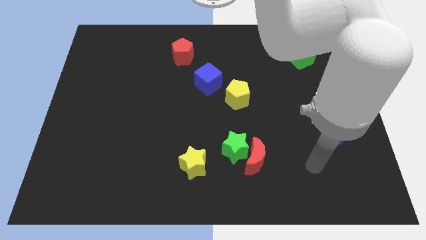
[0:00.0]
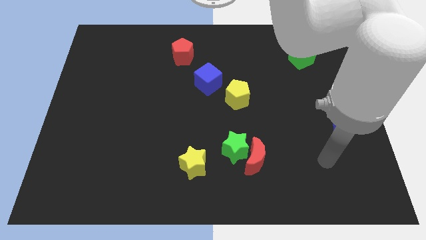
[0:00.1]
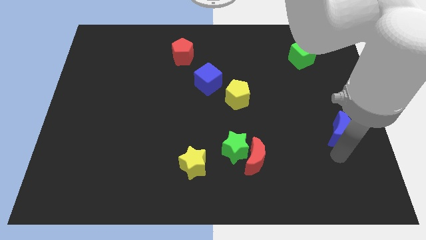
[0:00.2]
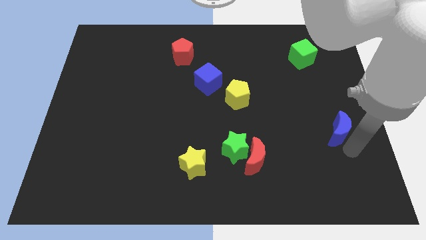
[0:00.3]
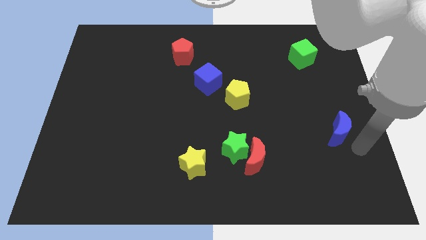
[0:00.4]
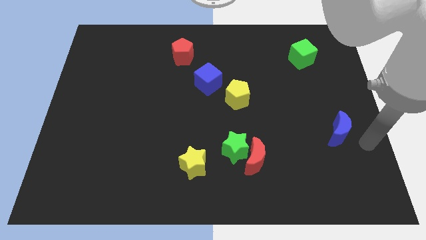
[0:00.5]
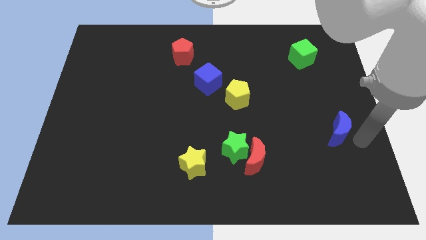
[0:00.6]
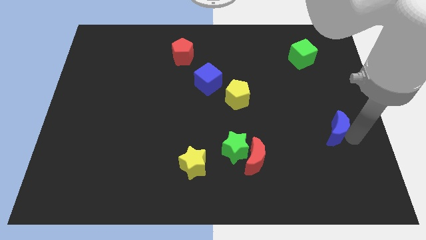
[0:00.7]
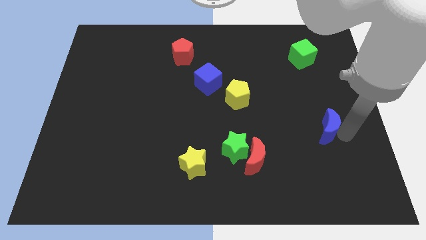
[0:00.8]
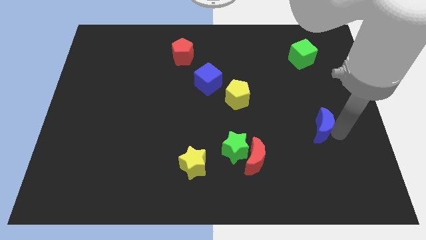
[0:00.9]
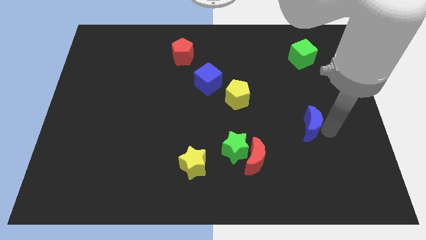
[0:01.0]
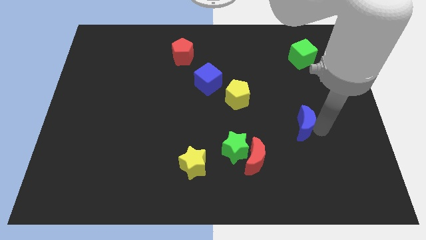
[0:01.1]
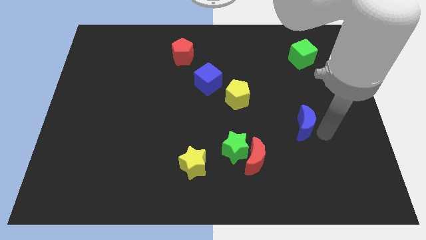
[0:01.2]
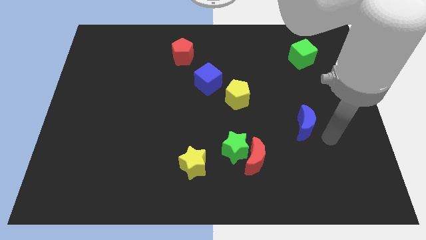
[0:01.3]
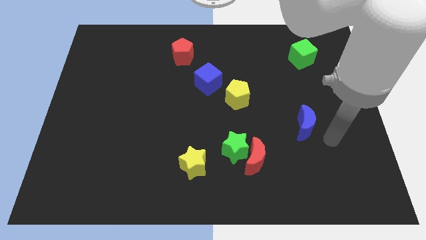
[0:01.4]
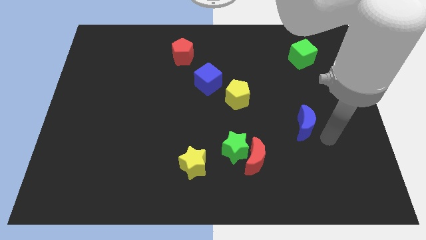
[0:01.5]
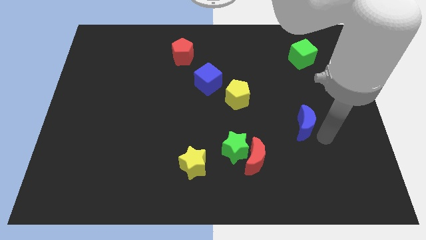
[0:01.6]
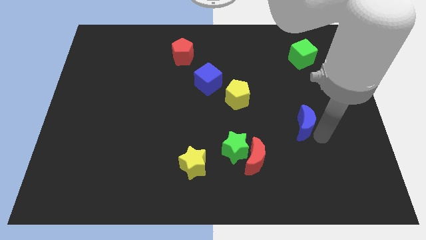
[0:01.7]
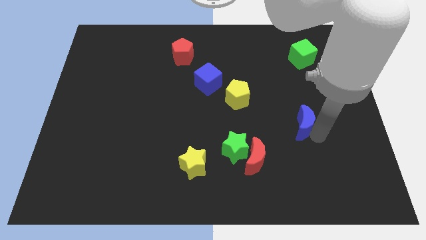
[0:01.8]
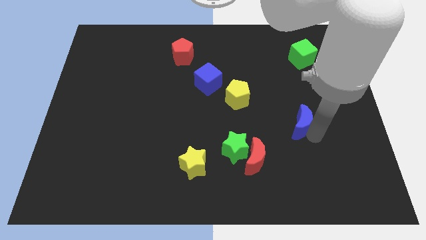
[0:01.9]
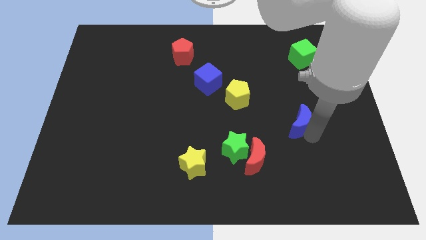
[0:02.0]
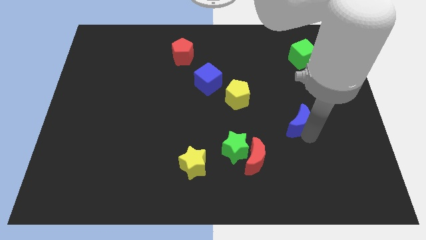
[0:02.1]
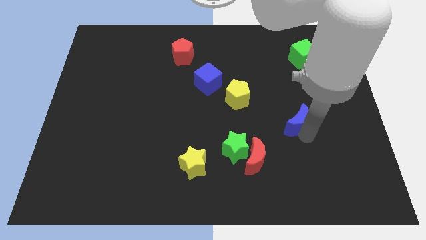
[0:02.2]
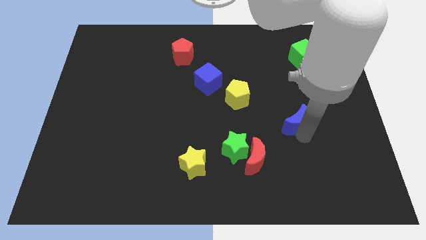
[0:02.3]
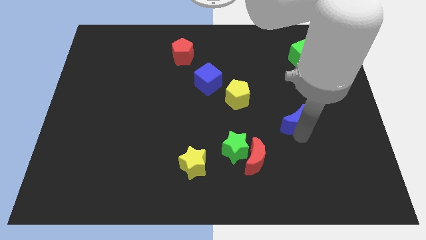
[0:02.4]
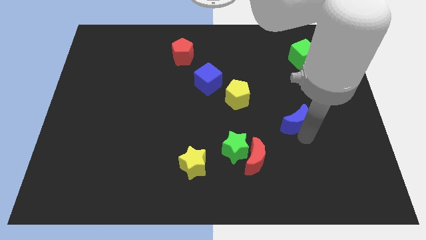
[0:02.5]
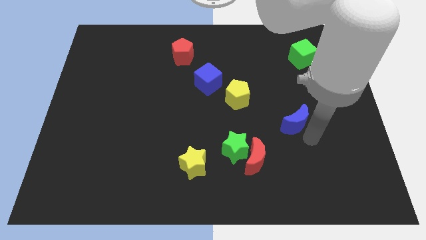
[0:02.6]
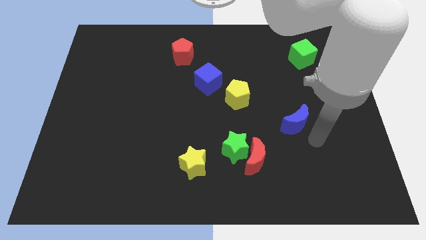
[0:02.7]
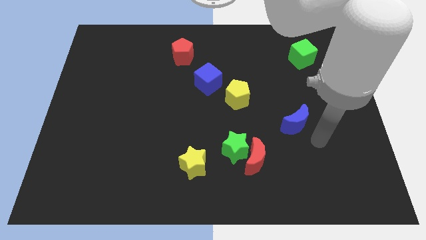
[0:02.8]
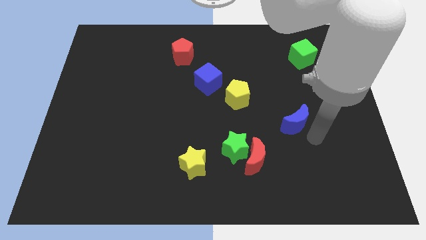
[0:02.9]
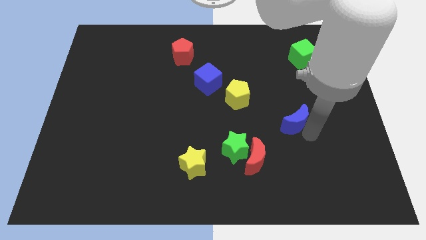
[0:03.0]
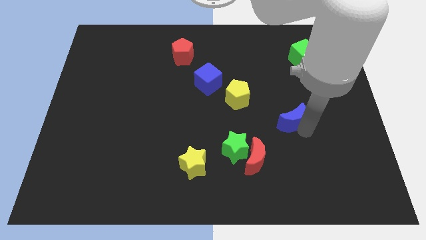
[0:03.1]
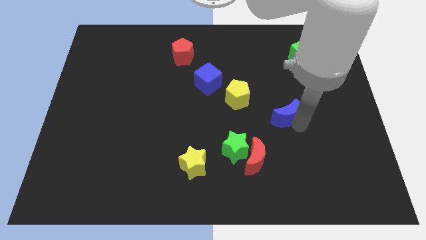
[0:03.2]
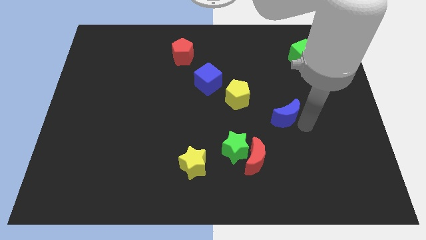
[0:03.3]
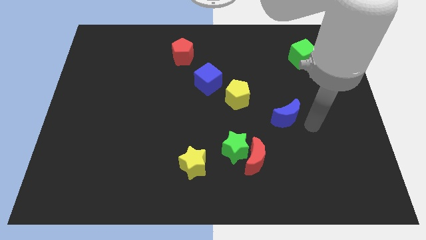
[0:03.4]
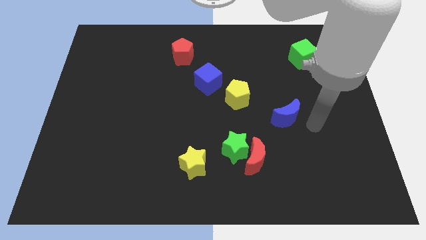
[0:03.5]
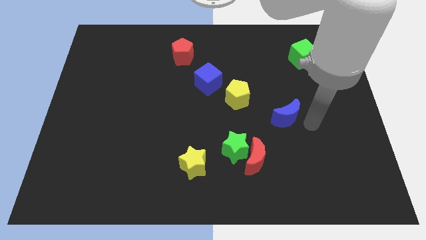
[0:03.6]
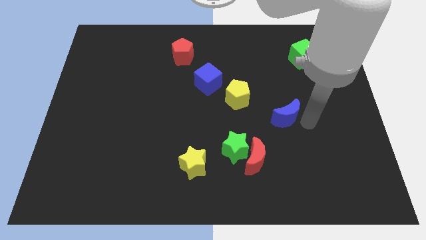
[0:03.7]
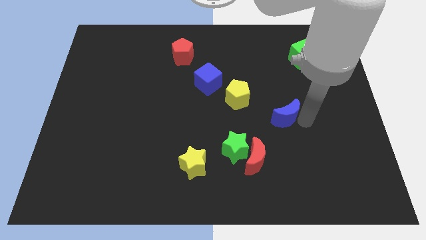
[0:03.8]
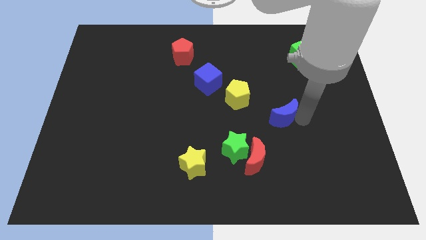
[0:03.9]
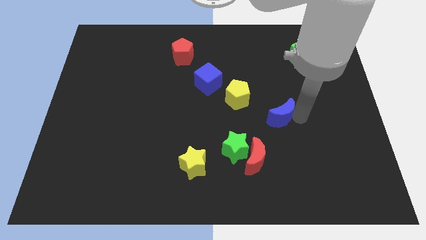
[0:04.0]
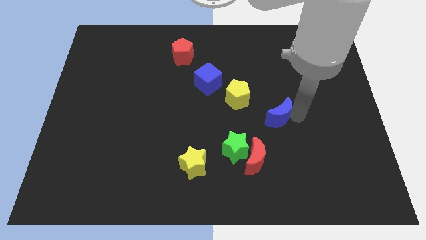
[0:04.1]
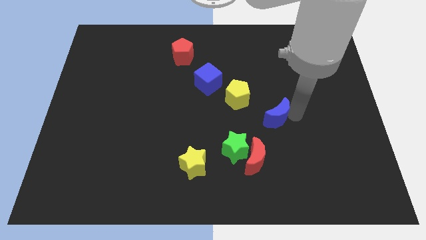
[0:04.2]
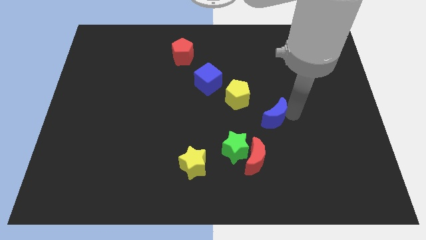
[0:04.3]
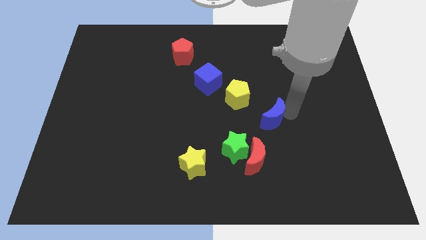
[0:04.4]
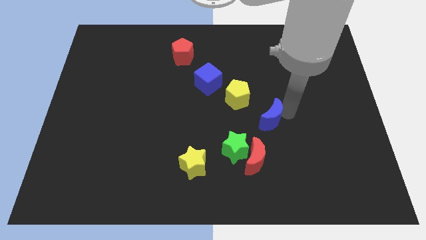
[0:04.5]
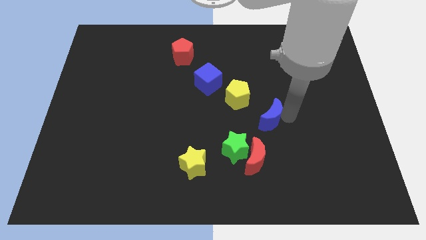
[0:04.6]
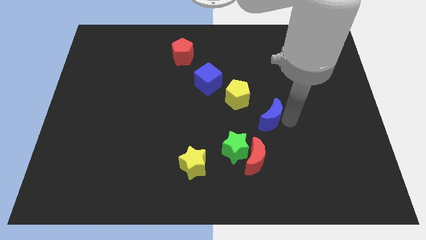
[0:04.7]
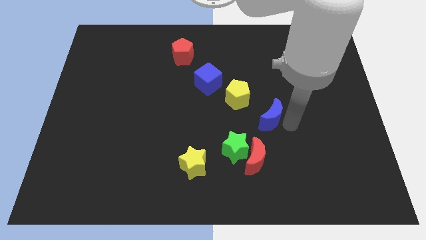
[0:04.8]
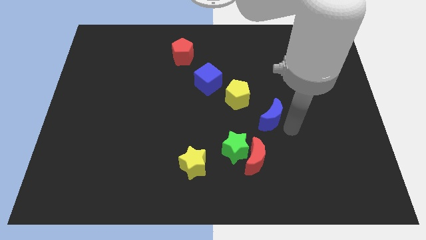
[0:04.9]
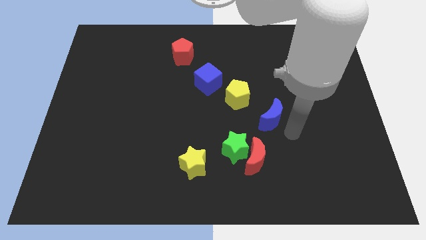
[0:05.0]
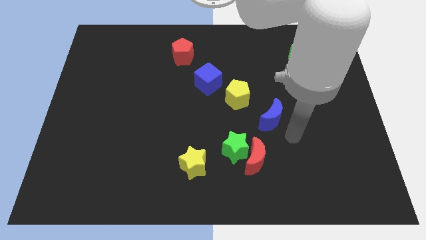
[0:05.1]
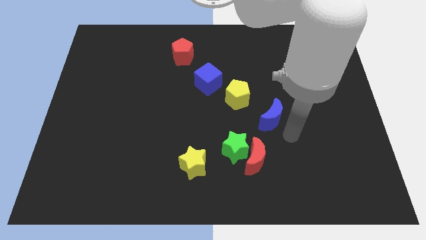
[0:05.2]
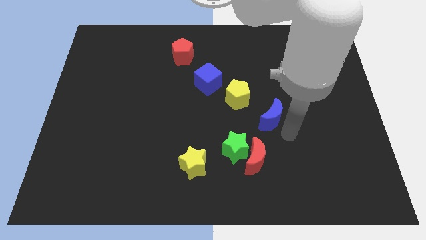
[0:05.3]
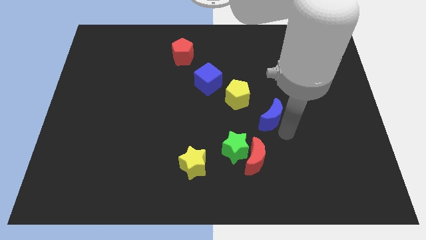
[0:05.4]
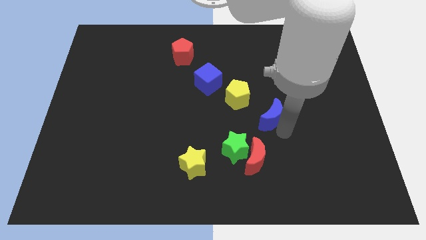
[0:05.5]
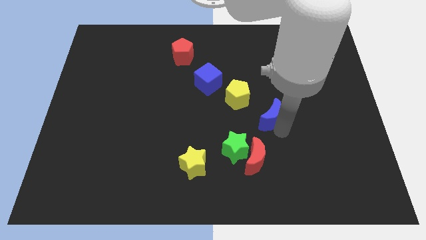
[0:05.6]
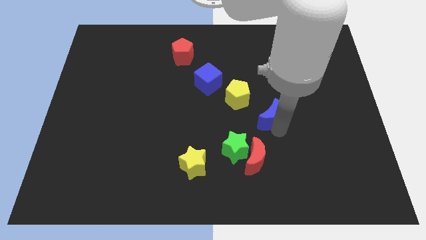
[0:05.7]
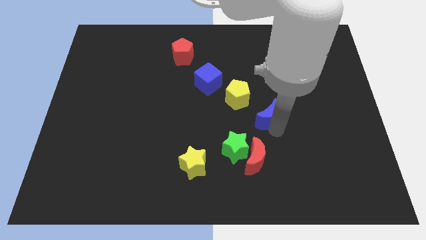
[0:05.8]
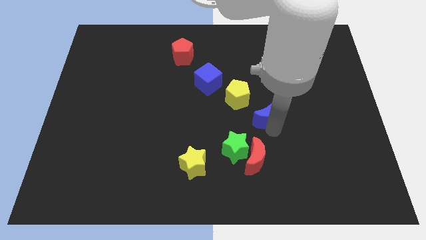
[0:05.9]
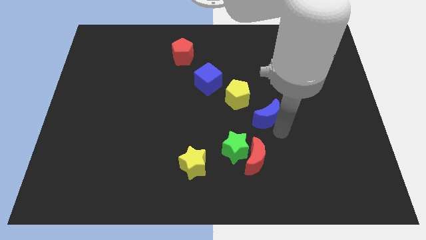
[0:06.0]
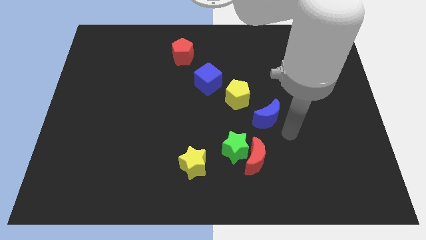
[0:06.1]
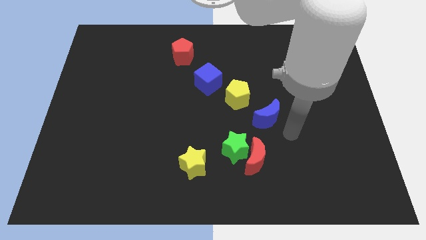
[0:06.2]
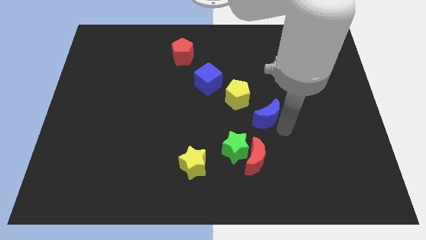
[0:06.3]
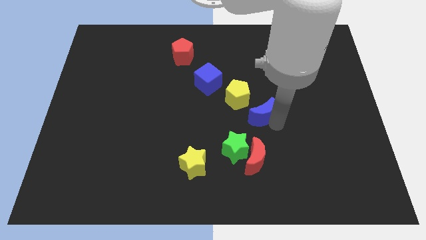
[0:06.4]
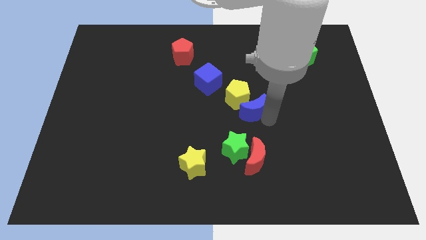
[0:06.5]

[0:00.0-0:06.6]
move the blue moon to the yellow pentagon

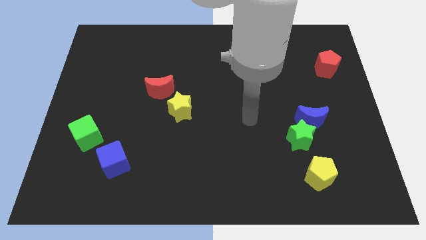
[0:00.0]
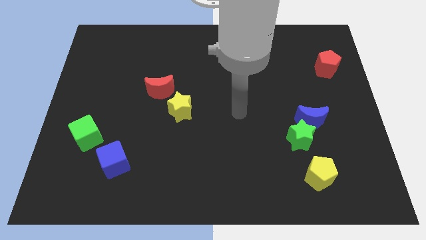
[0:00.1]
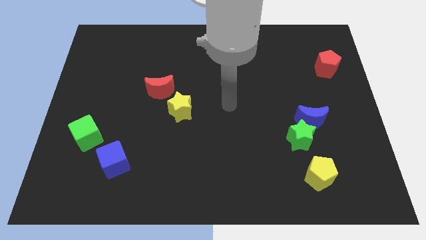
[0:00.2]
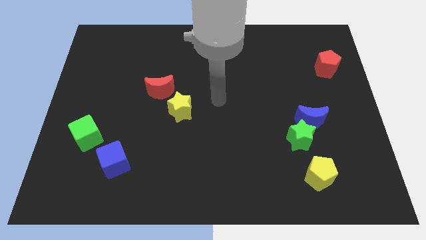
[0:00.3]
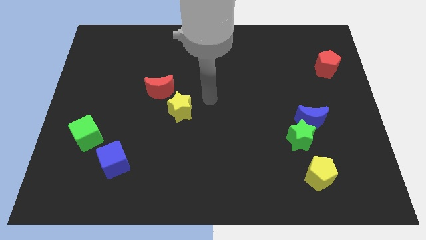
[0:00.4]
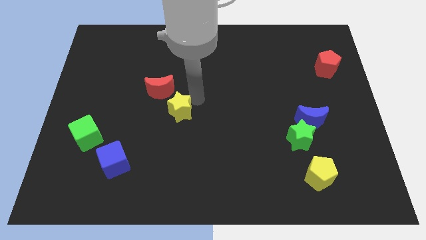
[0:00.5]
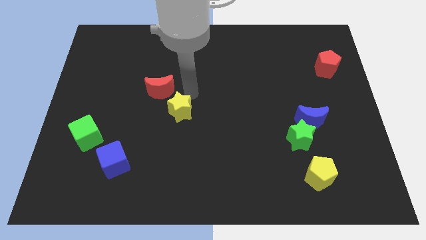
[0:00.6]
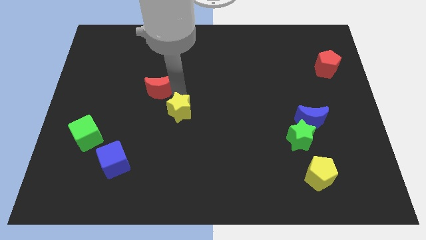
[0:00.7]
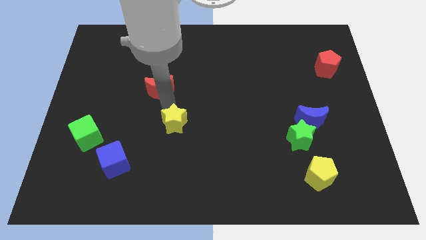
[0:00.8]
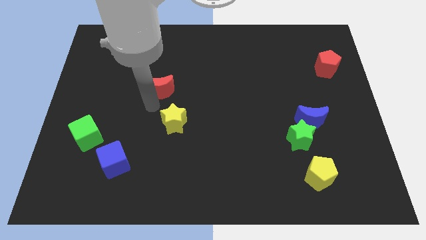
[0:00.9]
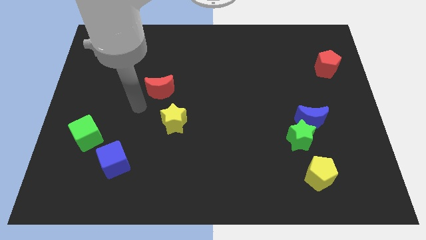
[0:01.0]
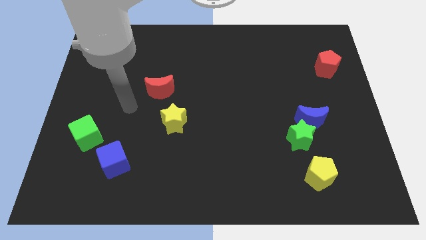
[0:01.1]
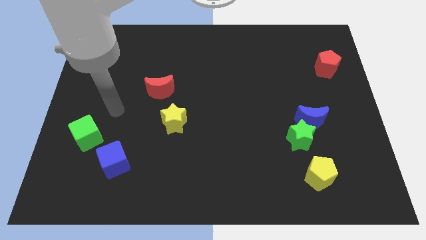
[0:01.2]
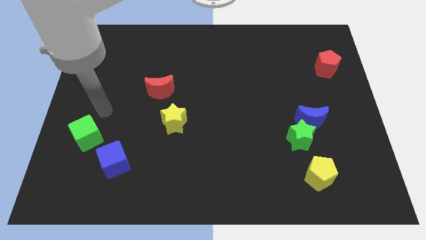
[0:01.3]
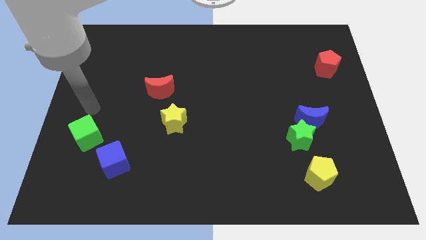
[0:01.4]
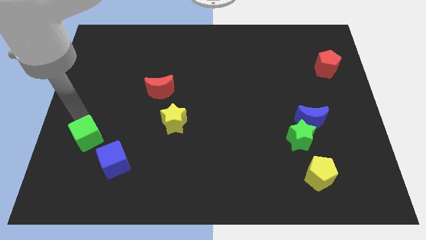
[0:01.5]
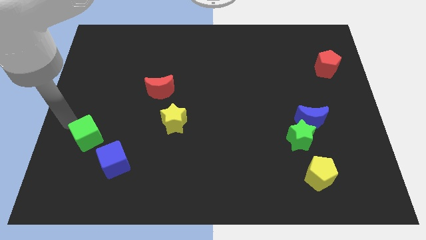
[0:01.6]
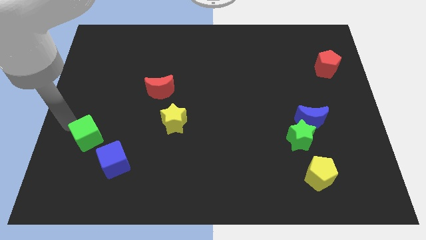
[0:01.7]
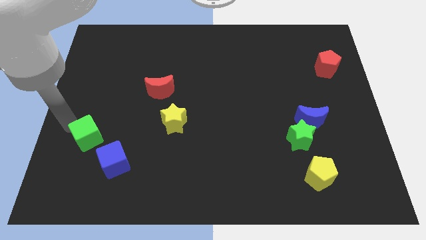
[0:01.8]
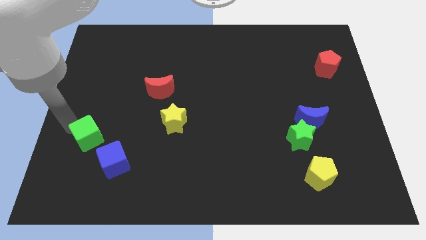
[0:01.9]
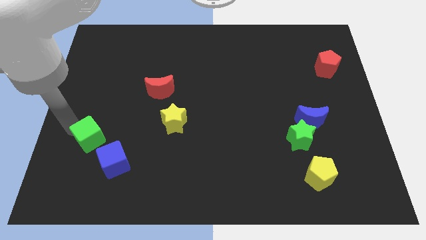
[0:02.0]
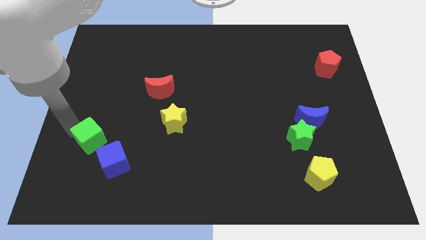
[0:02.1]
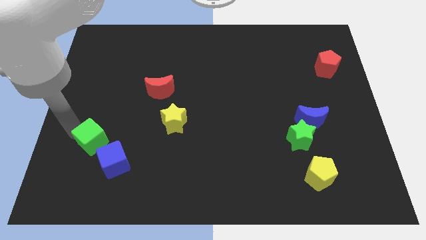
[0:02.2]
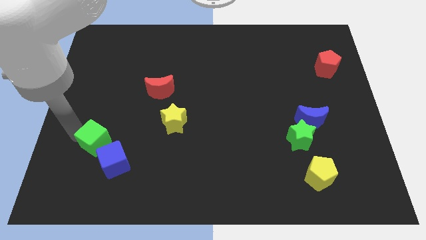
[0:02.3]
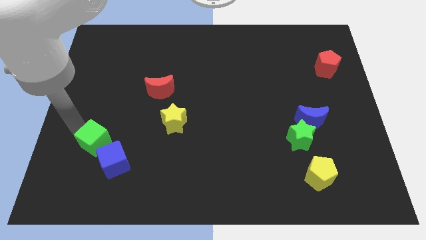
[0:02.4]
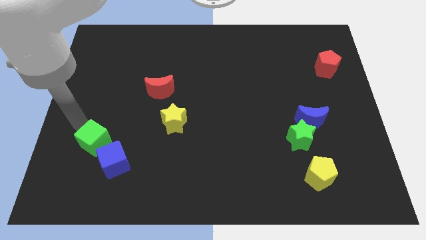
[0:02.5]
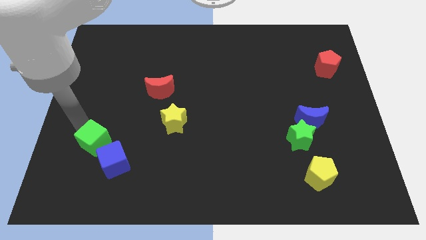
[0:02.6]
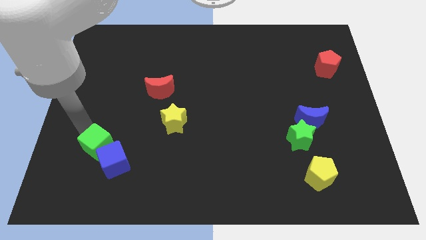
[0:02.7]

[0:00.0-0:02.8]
slide the green cube close to the blue cube
